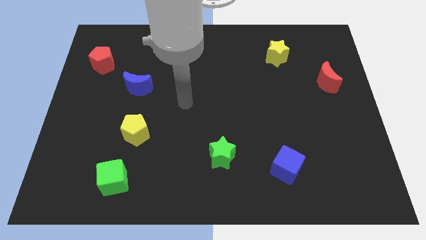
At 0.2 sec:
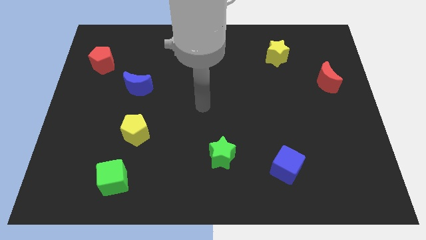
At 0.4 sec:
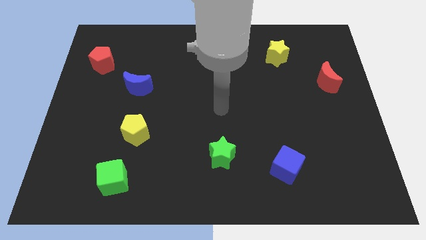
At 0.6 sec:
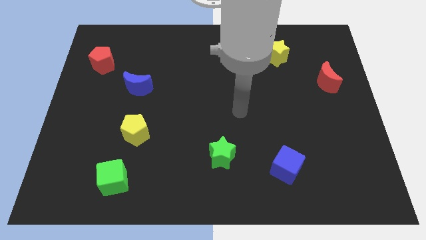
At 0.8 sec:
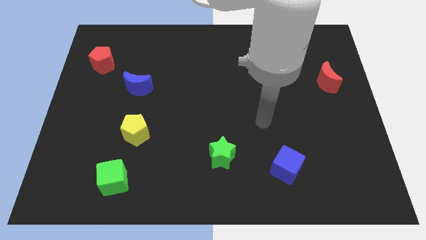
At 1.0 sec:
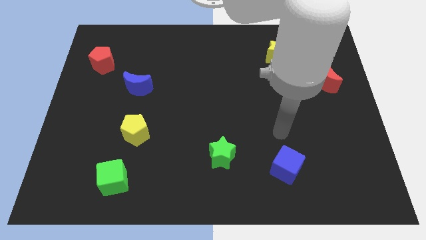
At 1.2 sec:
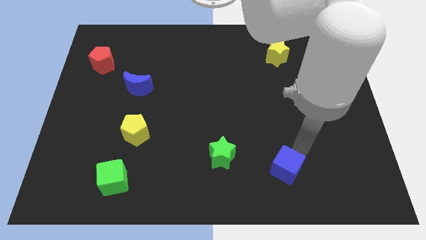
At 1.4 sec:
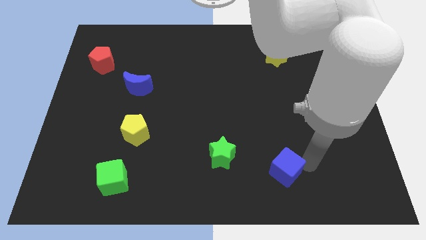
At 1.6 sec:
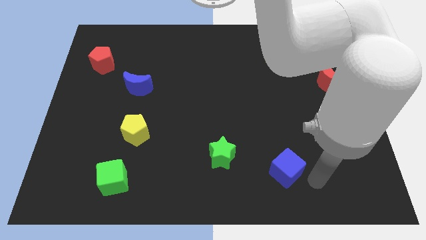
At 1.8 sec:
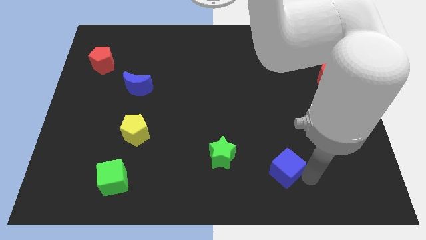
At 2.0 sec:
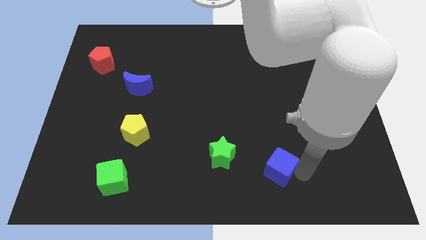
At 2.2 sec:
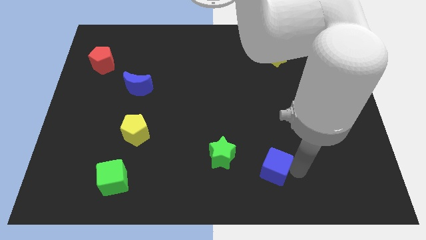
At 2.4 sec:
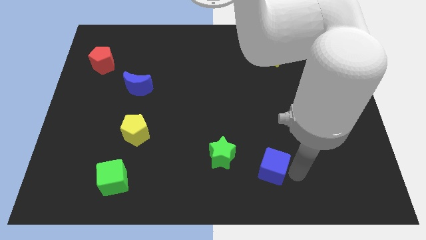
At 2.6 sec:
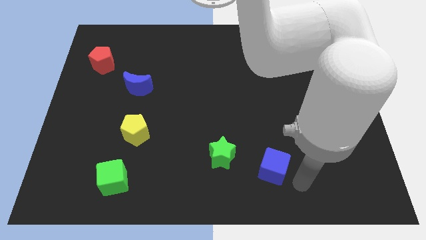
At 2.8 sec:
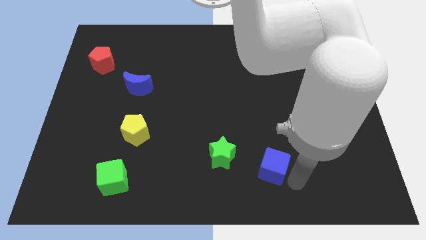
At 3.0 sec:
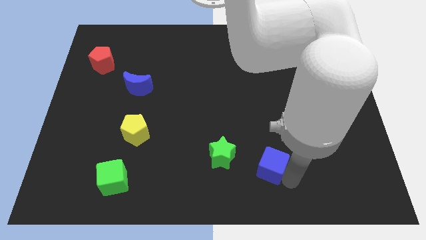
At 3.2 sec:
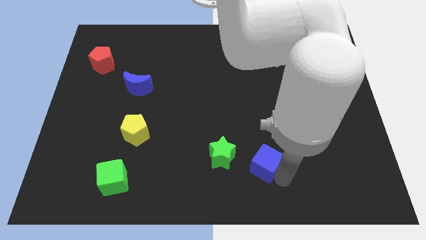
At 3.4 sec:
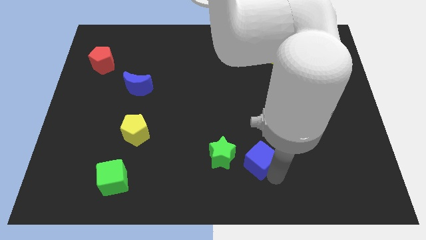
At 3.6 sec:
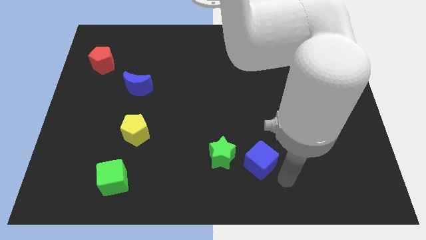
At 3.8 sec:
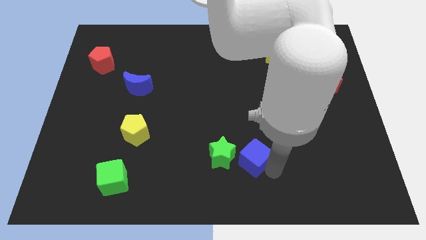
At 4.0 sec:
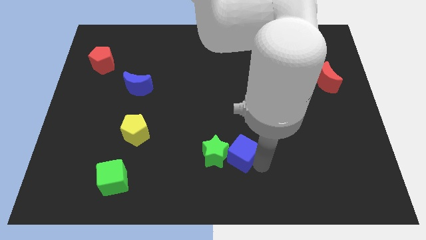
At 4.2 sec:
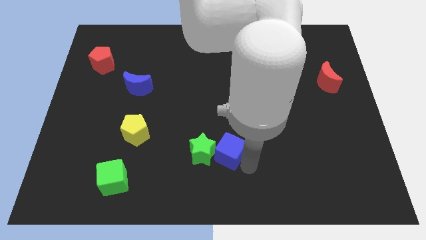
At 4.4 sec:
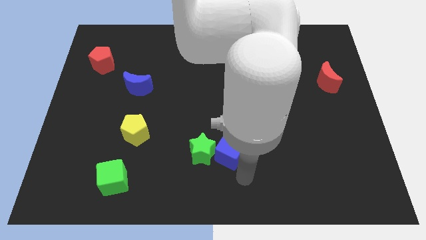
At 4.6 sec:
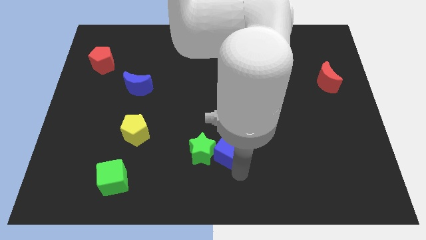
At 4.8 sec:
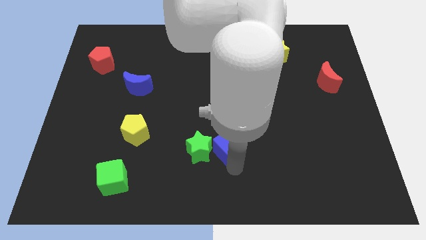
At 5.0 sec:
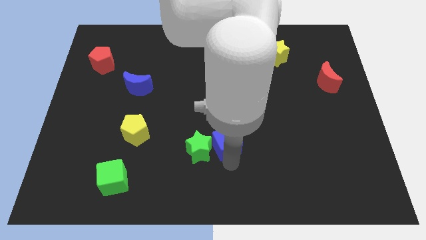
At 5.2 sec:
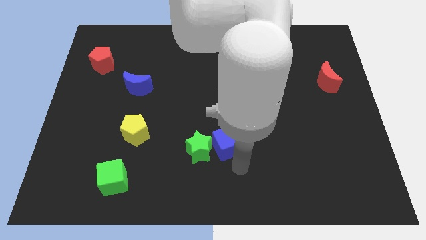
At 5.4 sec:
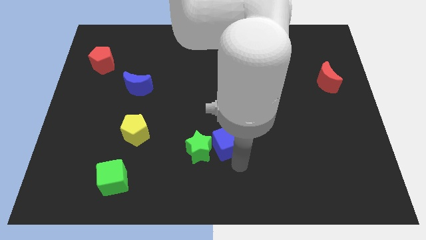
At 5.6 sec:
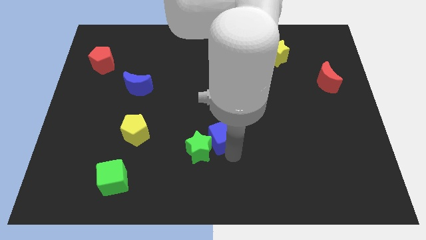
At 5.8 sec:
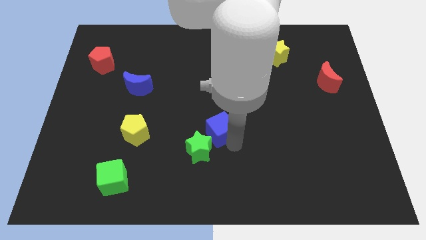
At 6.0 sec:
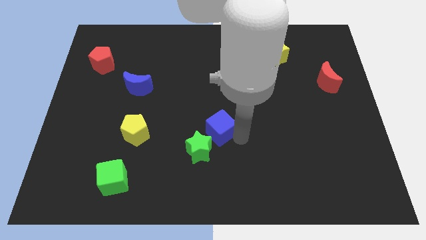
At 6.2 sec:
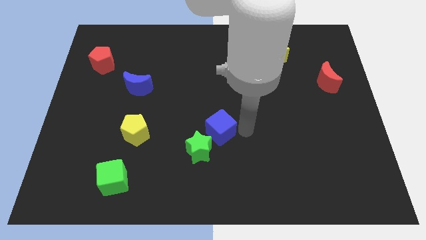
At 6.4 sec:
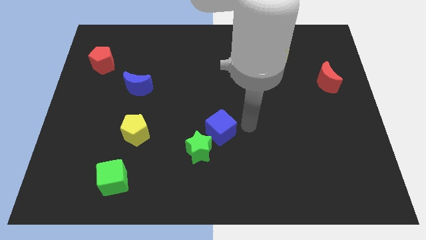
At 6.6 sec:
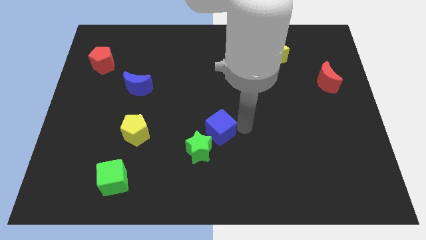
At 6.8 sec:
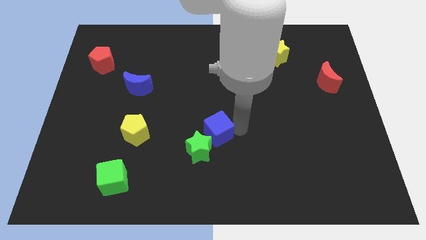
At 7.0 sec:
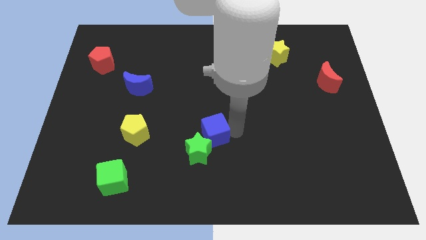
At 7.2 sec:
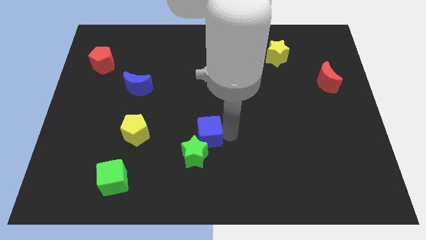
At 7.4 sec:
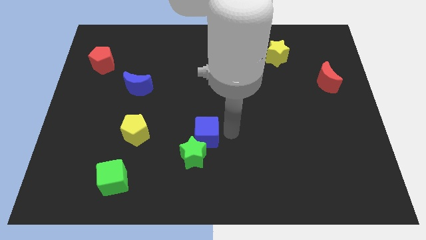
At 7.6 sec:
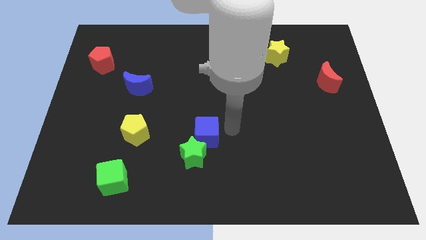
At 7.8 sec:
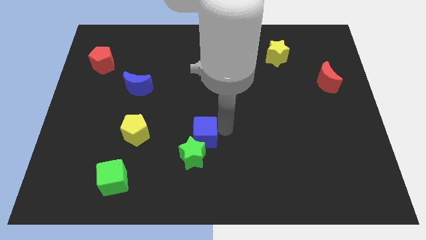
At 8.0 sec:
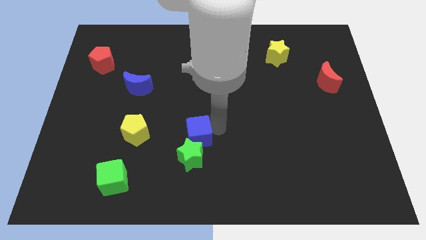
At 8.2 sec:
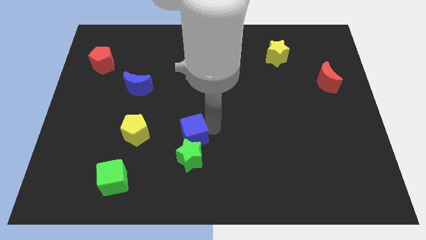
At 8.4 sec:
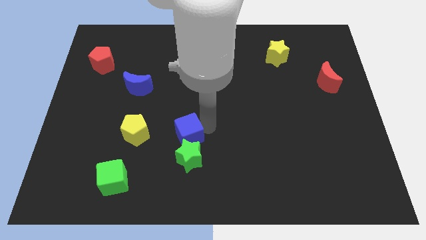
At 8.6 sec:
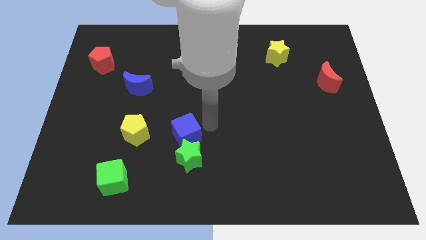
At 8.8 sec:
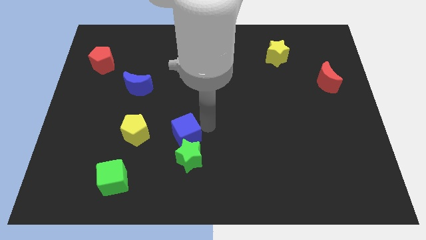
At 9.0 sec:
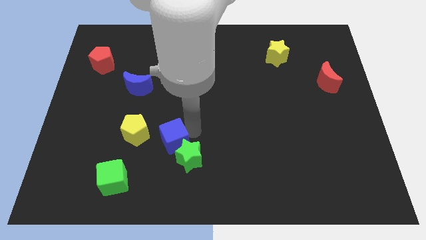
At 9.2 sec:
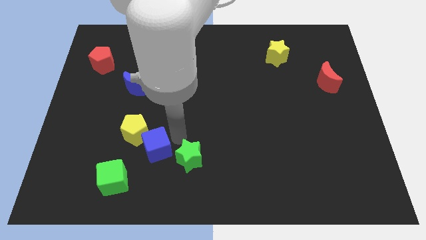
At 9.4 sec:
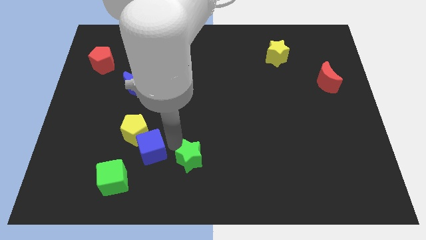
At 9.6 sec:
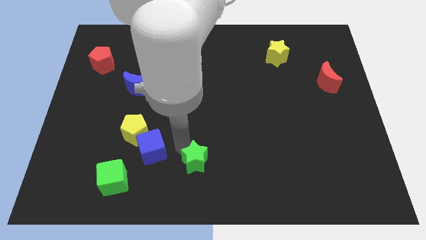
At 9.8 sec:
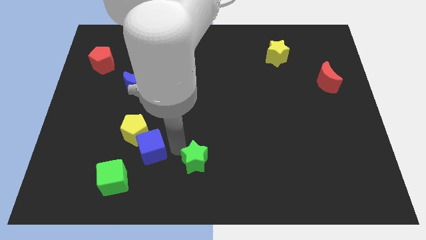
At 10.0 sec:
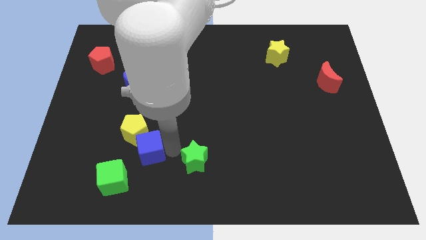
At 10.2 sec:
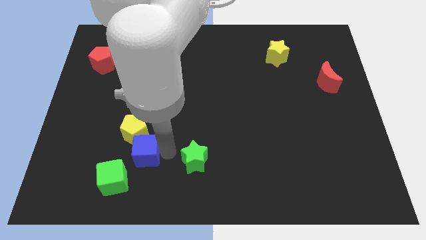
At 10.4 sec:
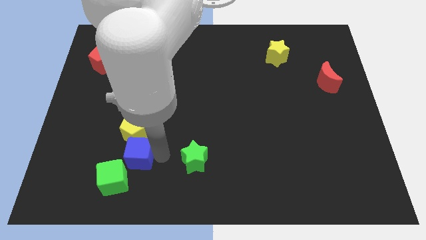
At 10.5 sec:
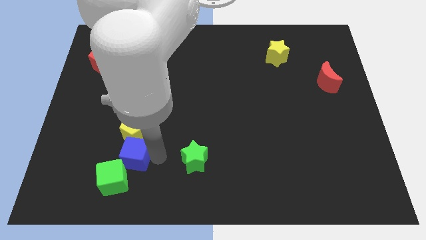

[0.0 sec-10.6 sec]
push the blue cube diagonally down and to the left of the yellow pentagon

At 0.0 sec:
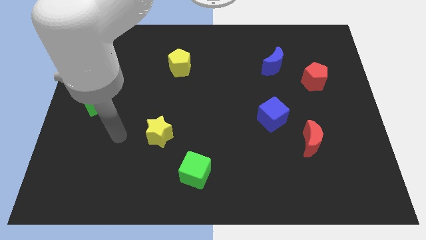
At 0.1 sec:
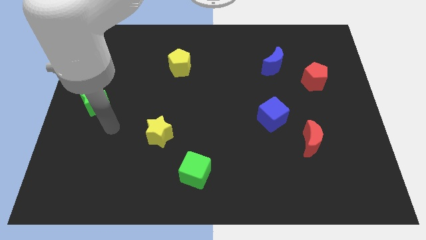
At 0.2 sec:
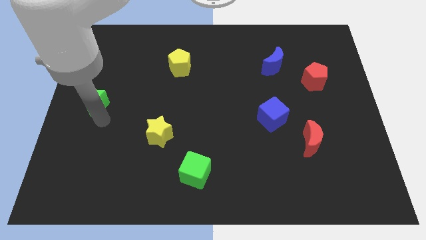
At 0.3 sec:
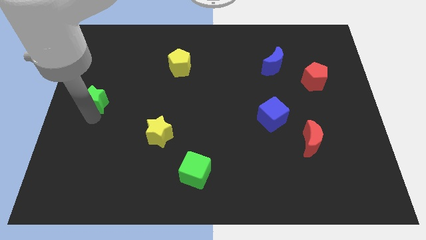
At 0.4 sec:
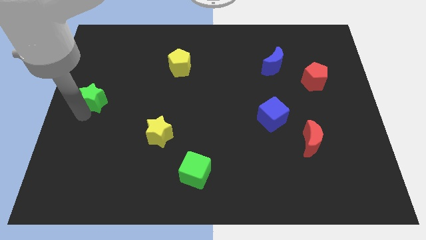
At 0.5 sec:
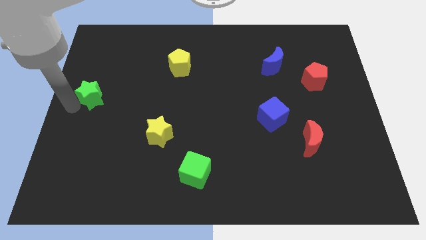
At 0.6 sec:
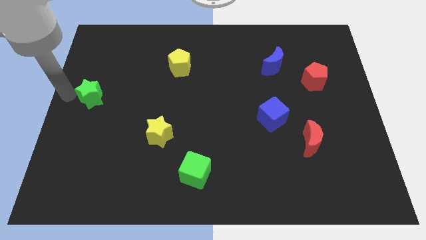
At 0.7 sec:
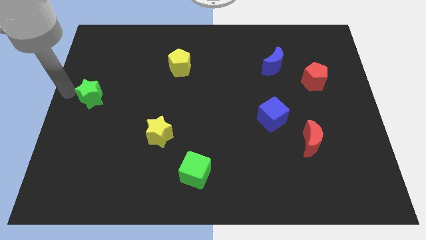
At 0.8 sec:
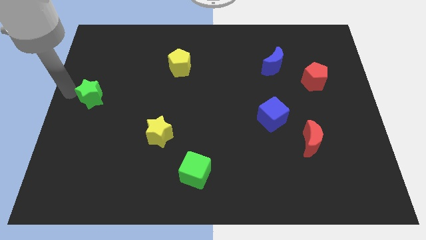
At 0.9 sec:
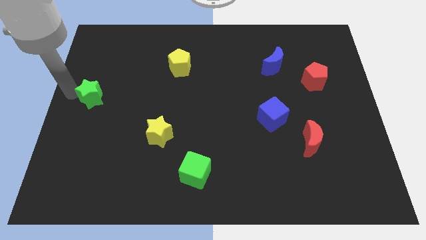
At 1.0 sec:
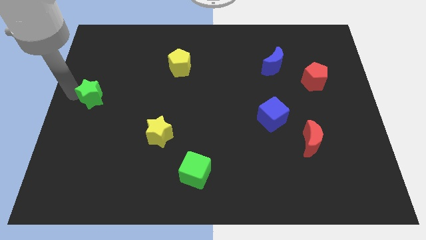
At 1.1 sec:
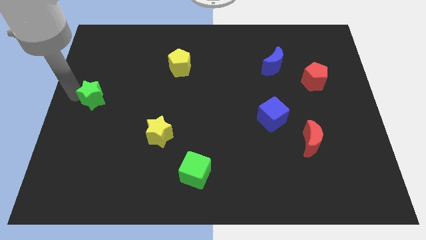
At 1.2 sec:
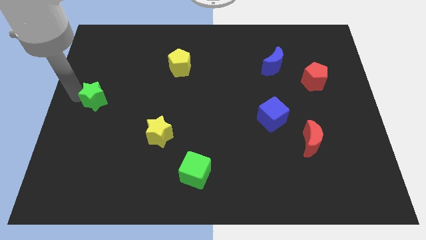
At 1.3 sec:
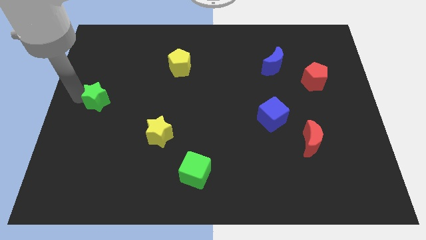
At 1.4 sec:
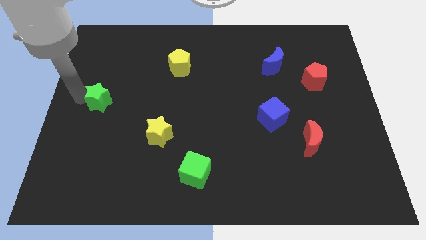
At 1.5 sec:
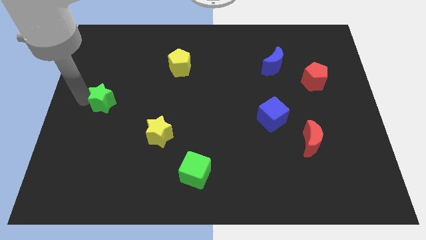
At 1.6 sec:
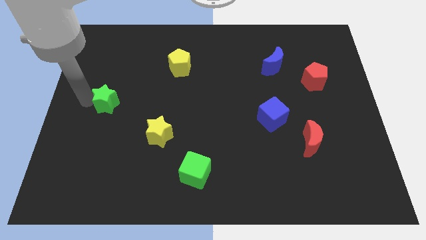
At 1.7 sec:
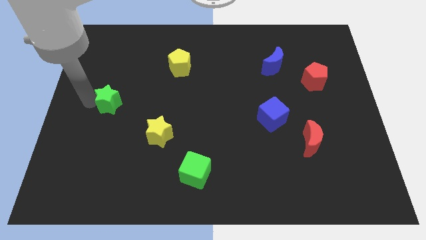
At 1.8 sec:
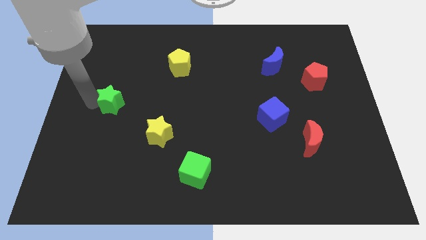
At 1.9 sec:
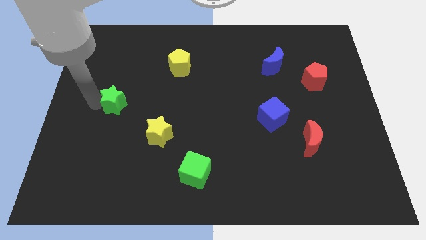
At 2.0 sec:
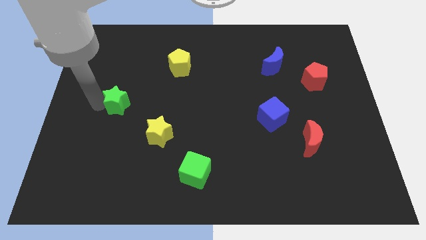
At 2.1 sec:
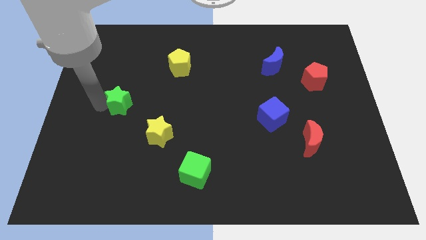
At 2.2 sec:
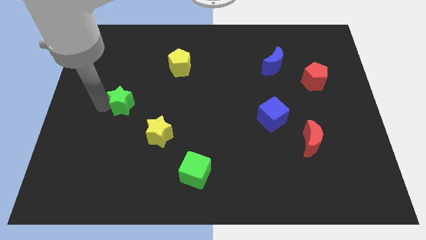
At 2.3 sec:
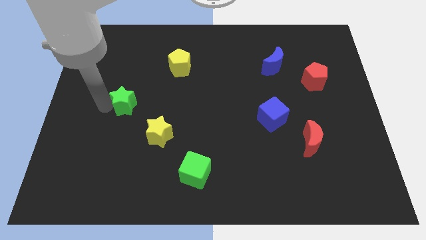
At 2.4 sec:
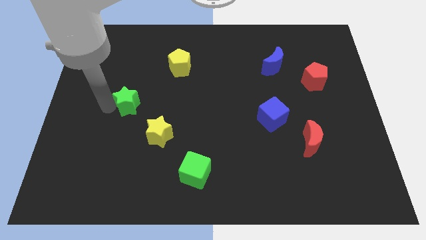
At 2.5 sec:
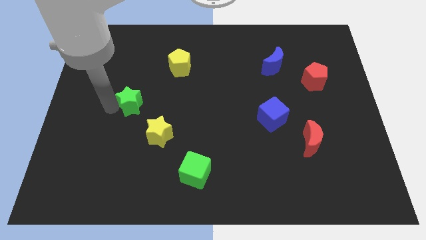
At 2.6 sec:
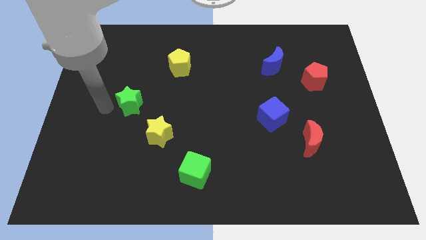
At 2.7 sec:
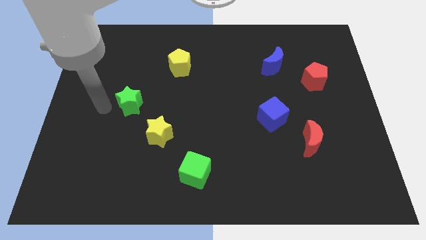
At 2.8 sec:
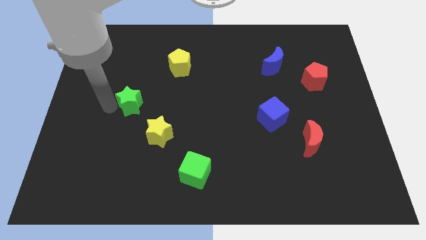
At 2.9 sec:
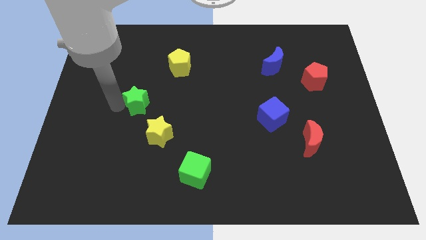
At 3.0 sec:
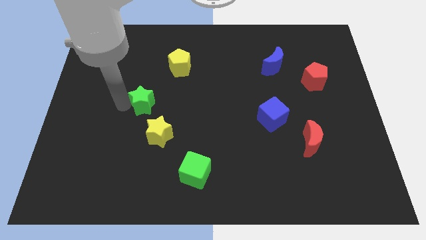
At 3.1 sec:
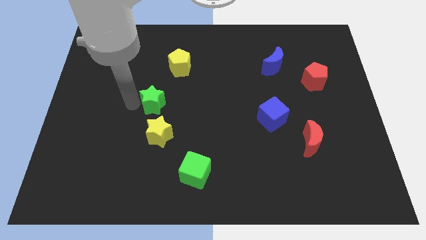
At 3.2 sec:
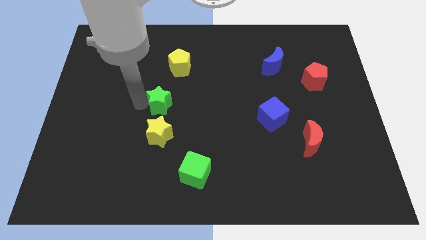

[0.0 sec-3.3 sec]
move the green star to the bottom of the yellow pentagon
